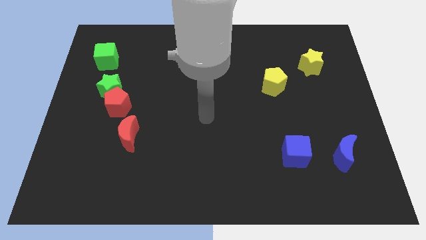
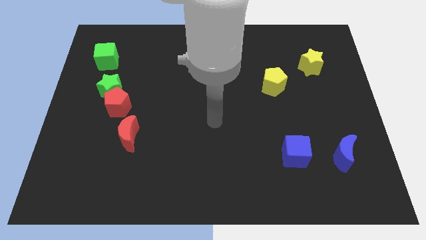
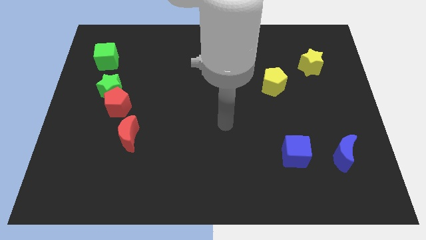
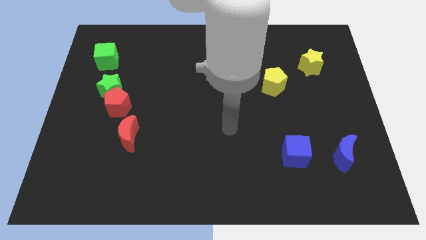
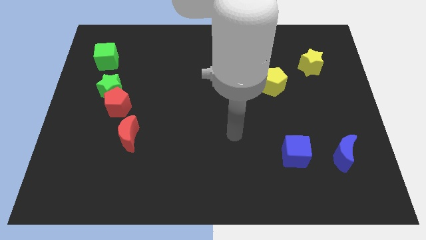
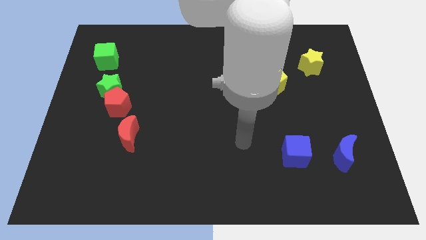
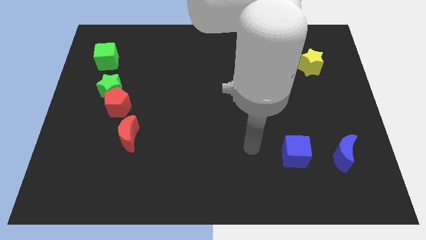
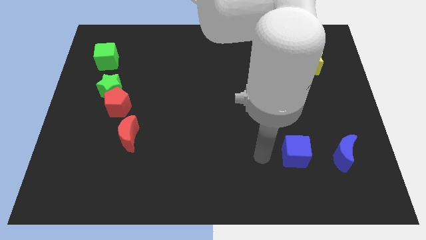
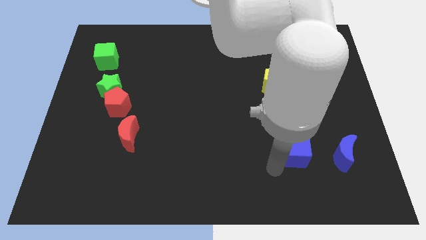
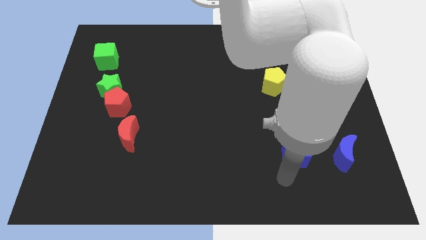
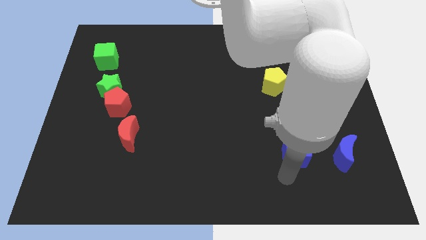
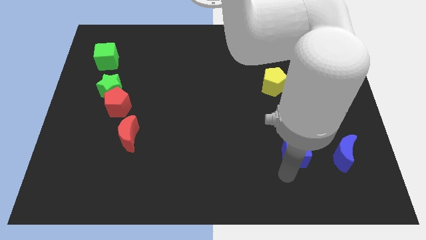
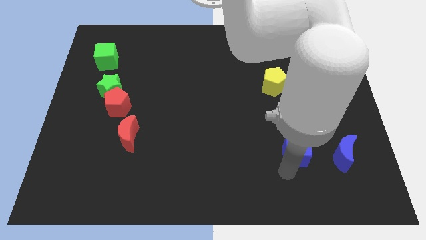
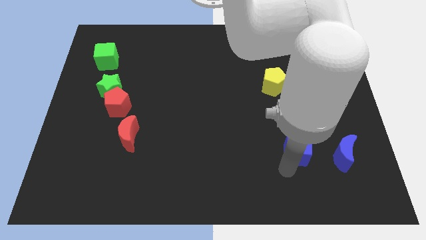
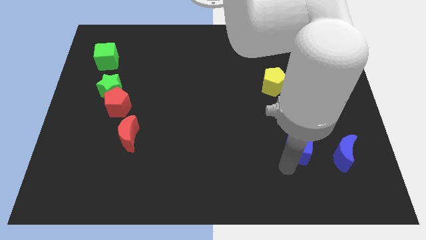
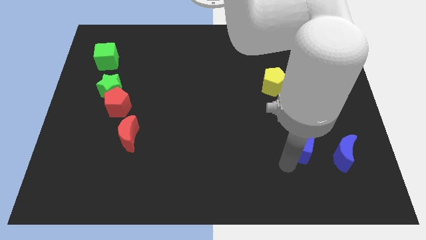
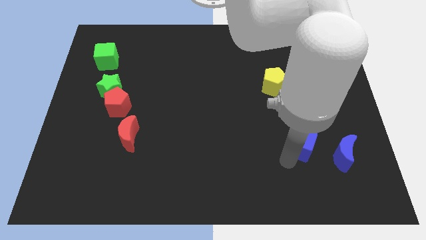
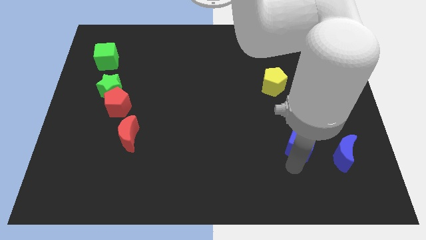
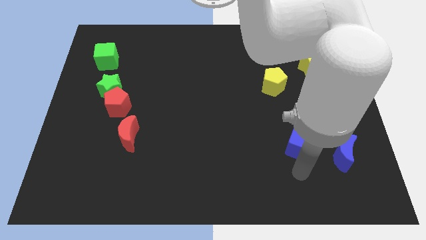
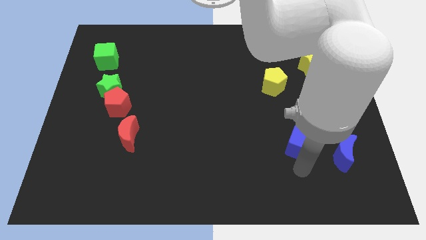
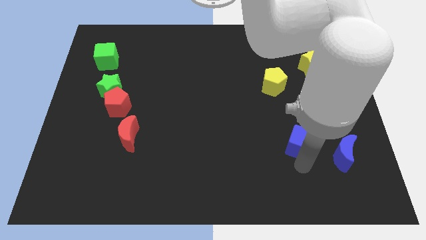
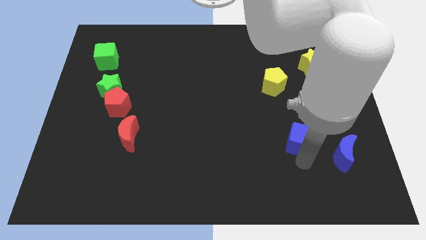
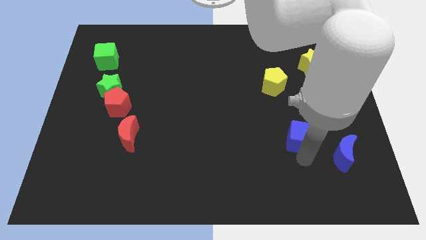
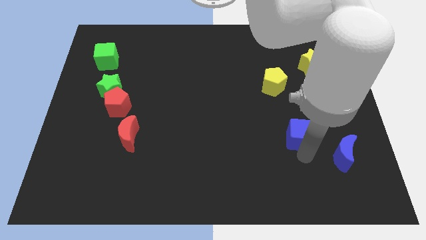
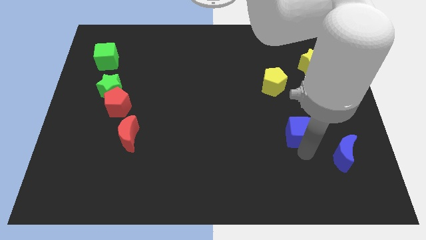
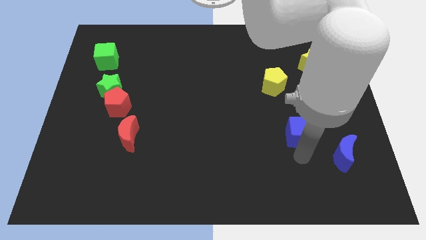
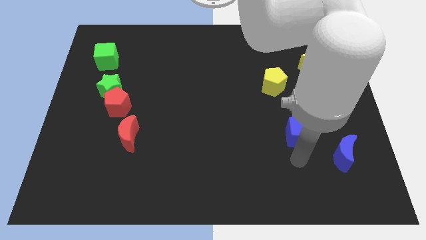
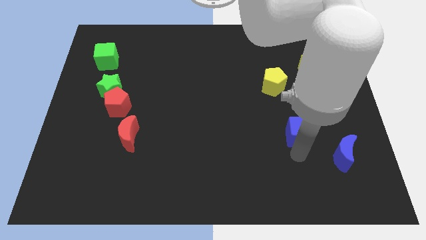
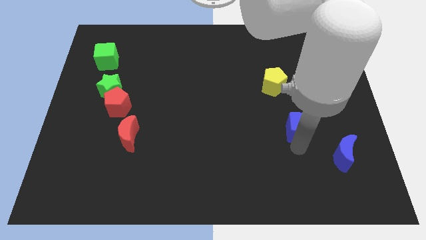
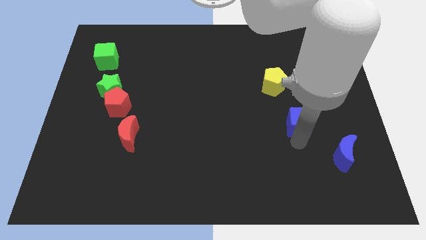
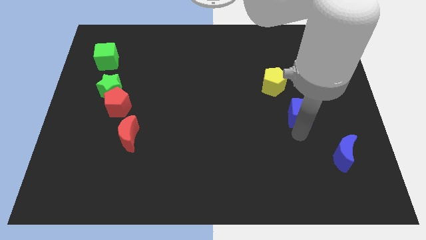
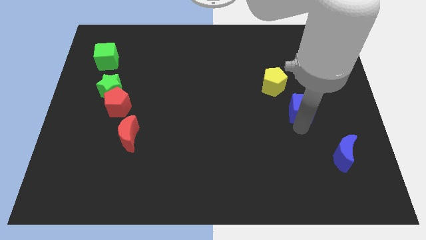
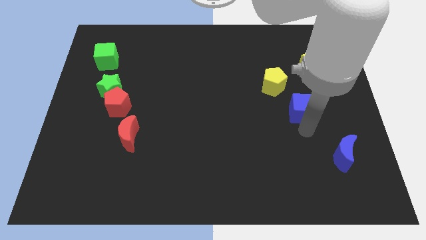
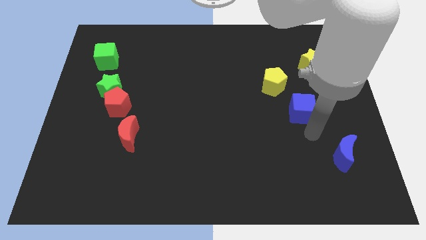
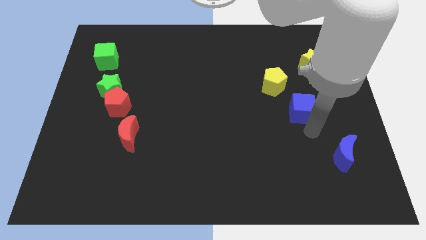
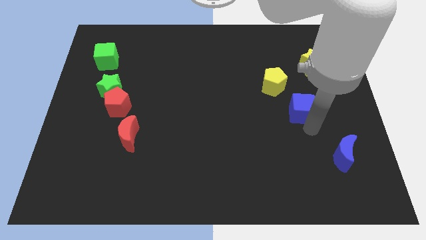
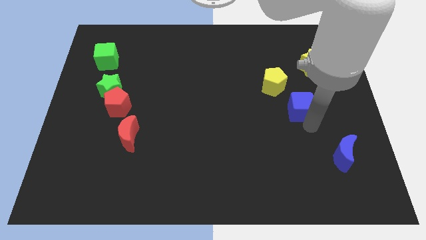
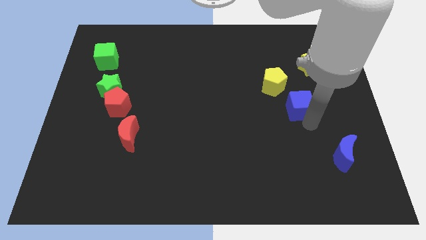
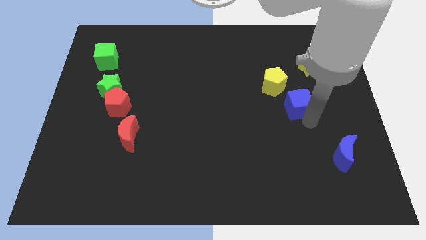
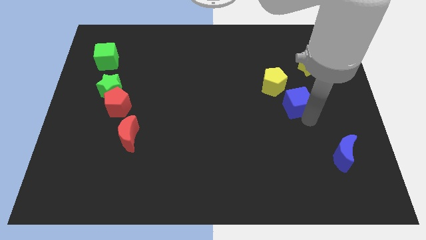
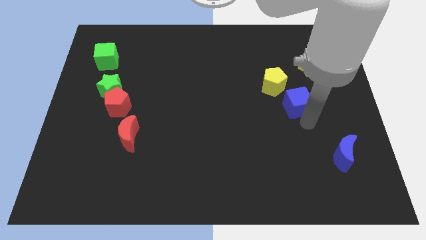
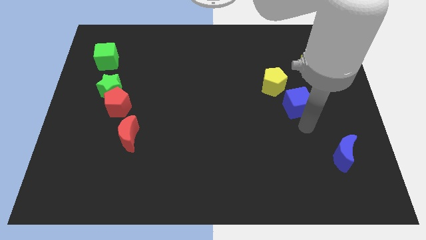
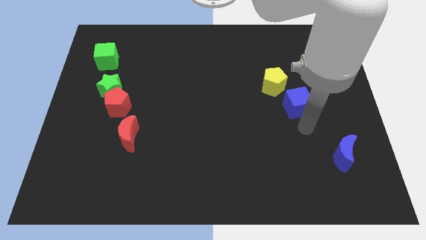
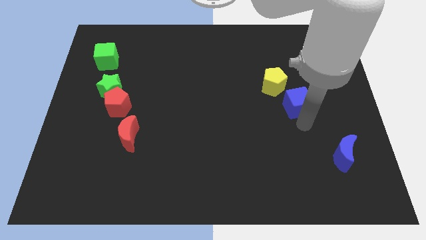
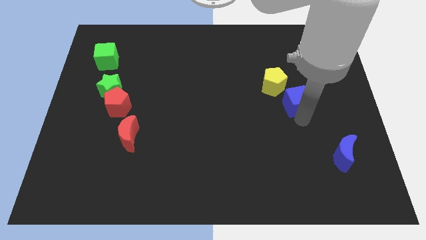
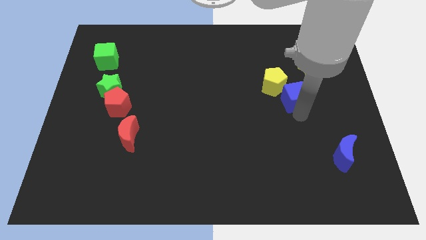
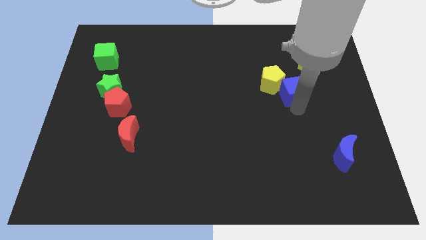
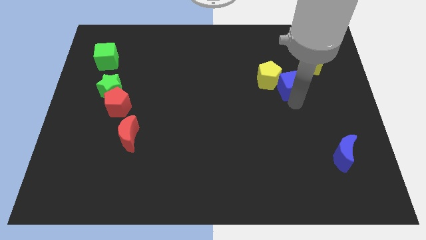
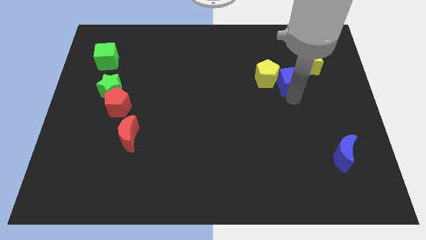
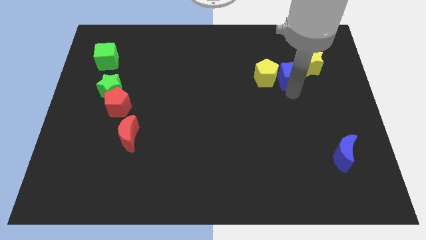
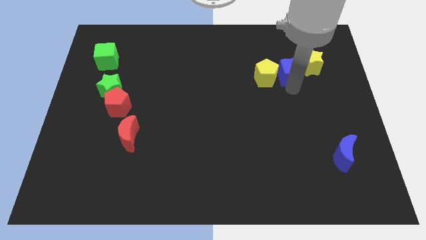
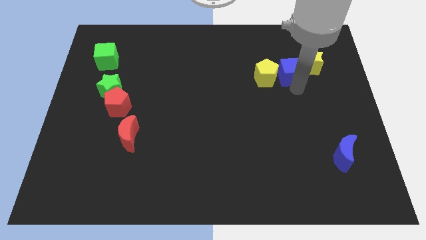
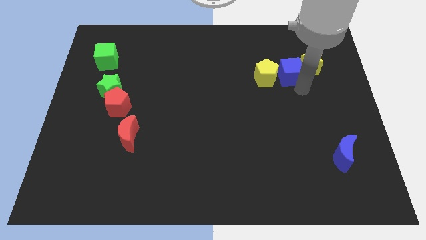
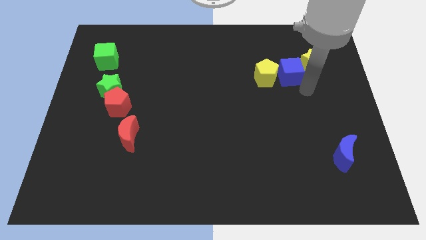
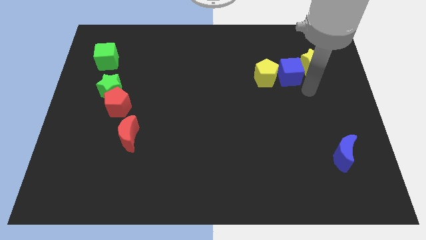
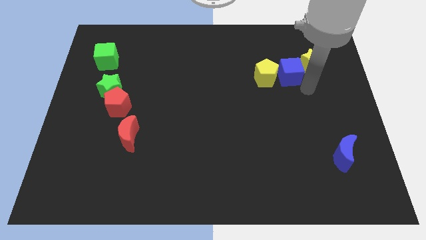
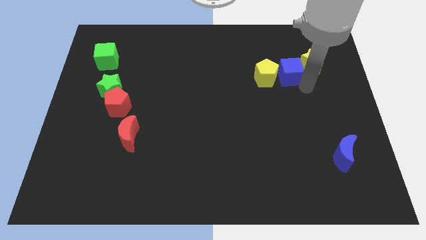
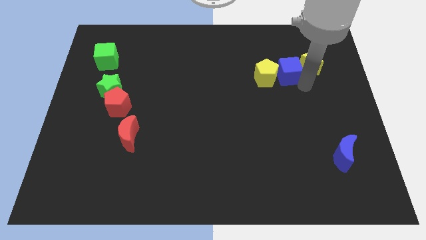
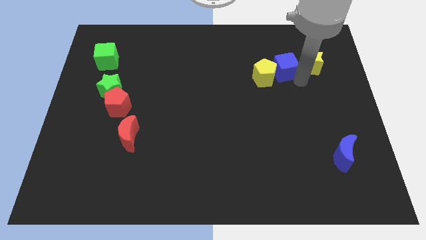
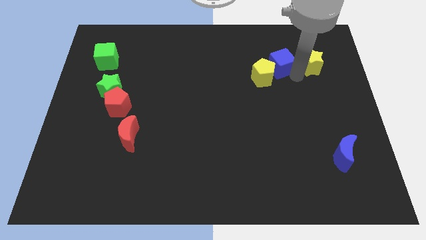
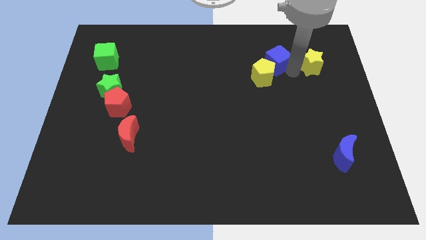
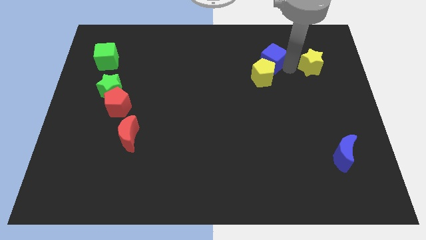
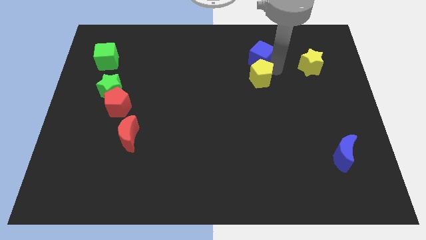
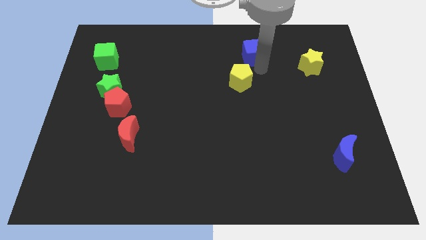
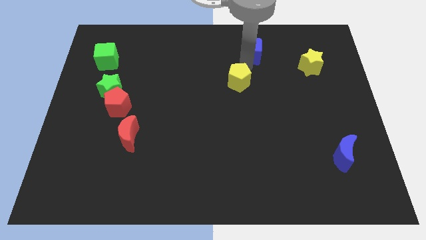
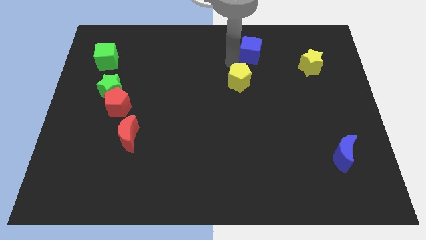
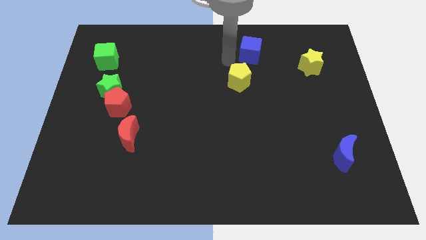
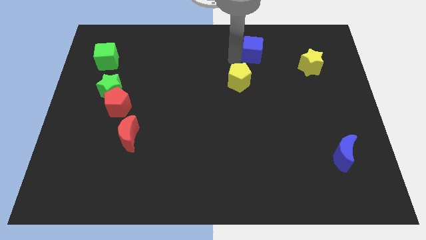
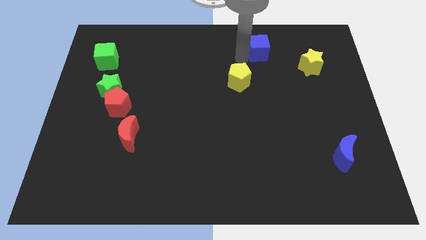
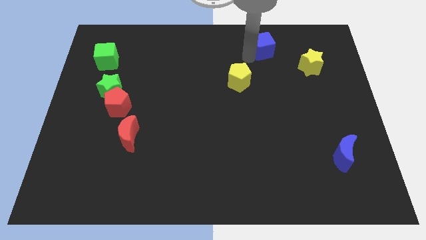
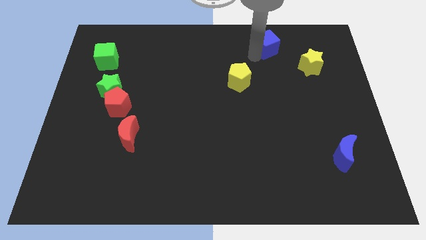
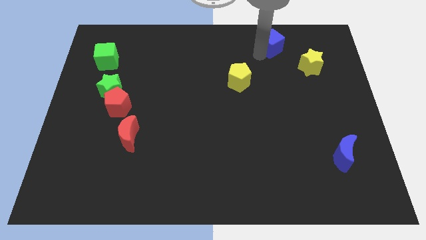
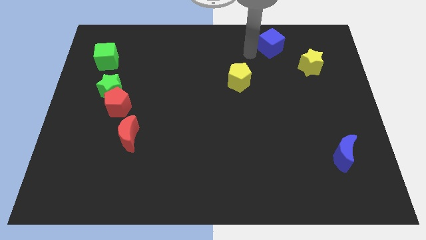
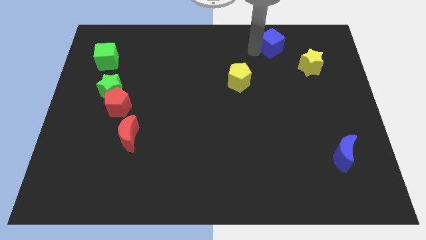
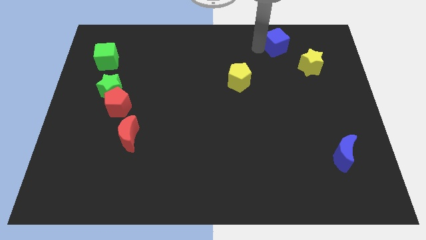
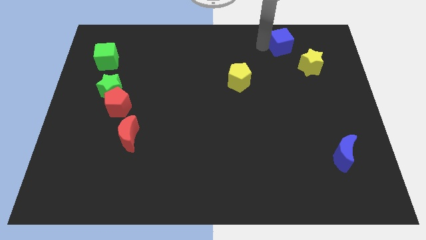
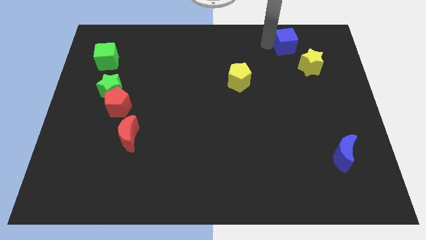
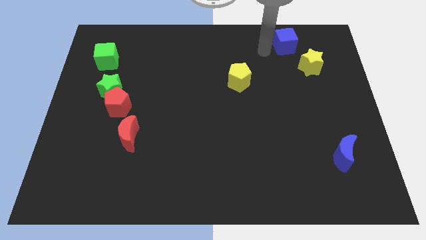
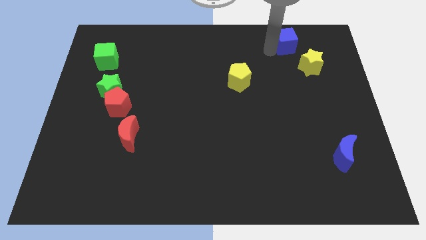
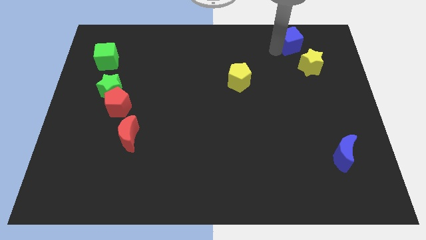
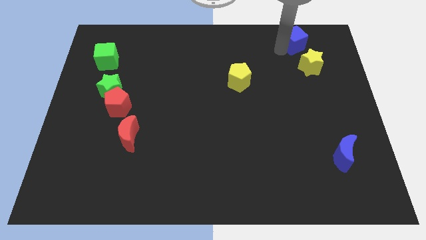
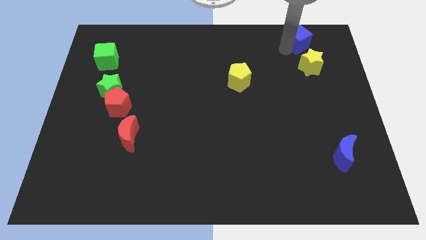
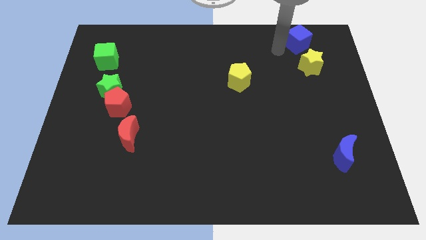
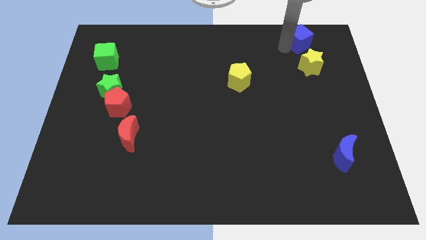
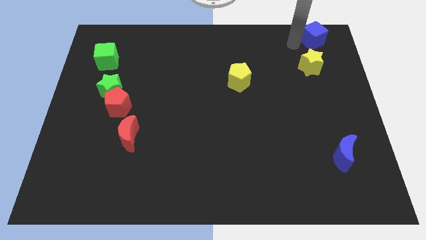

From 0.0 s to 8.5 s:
put the blue cube to the top right corner
